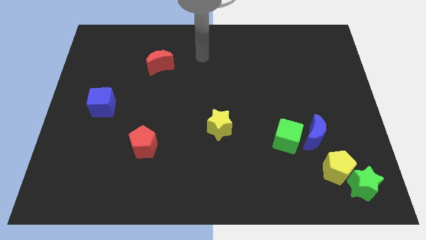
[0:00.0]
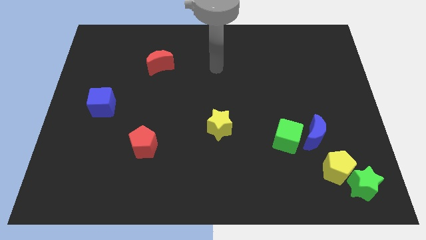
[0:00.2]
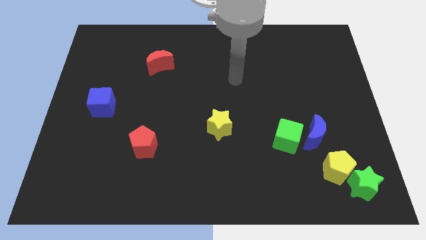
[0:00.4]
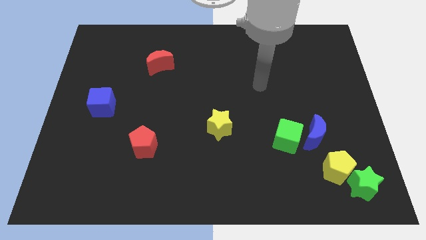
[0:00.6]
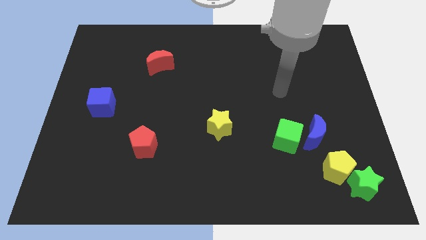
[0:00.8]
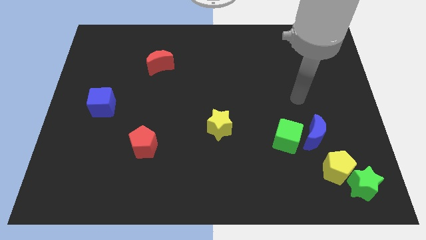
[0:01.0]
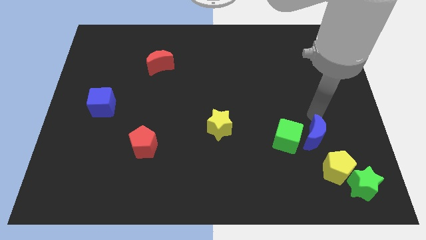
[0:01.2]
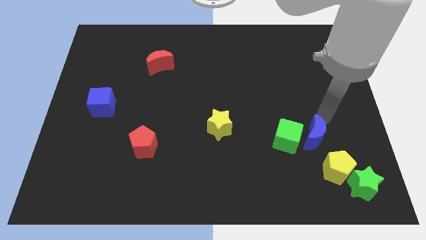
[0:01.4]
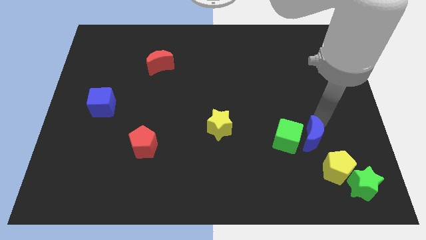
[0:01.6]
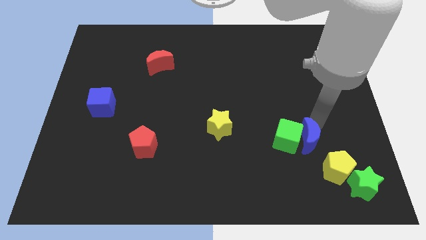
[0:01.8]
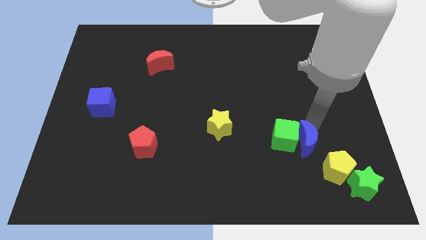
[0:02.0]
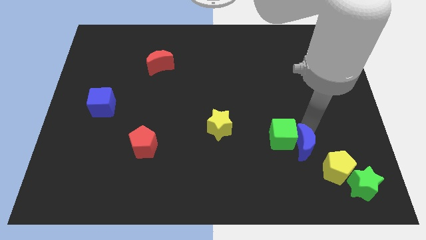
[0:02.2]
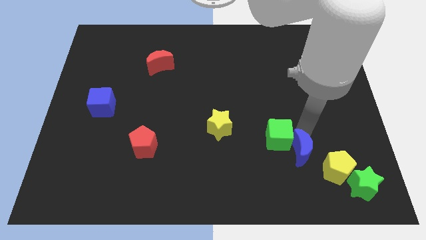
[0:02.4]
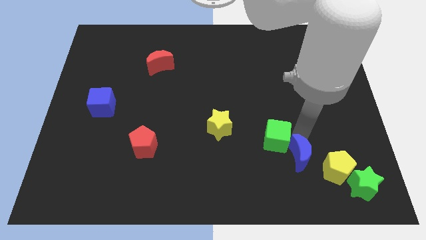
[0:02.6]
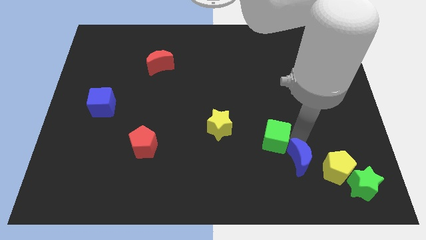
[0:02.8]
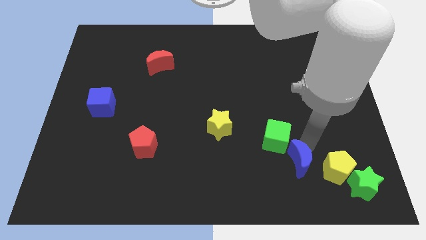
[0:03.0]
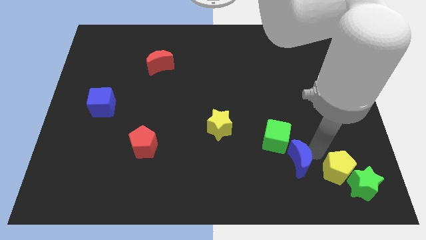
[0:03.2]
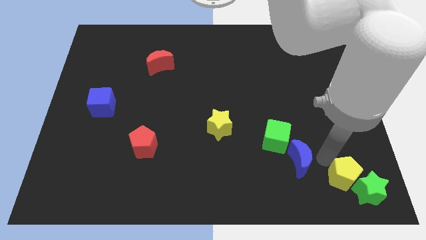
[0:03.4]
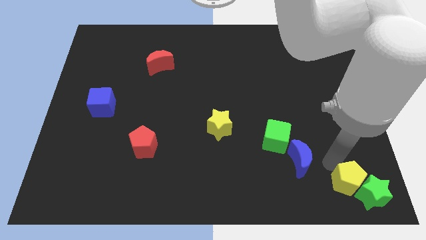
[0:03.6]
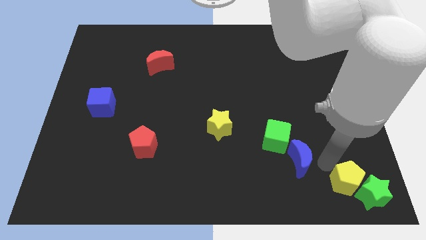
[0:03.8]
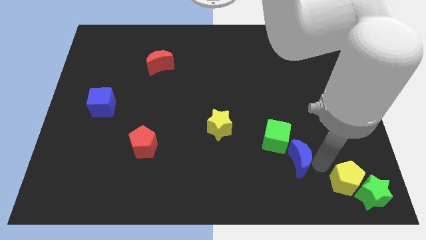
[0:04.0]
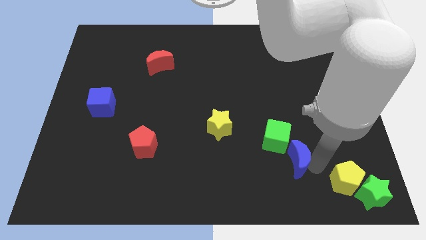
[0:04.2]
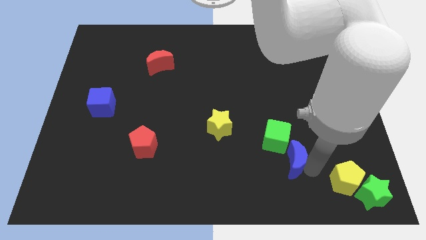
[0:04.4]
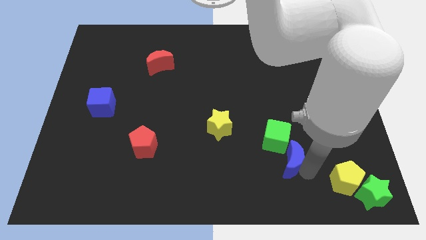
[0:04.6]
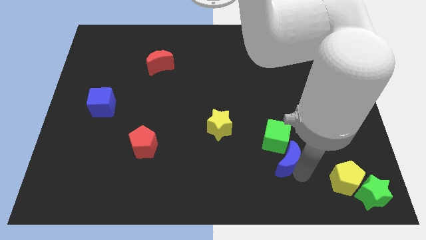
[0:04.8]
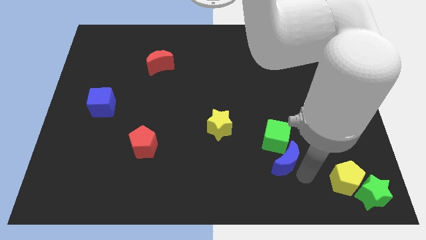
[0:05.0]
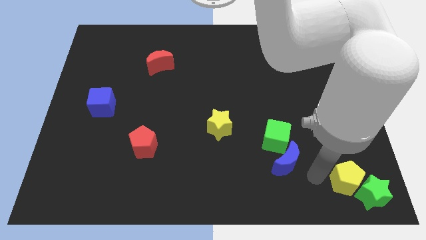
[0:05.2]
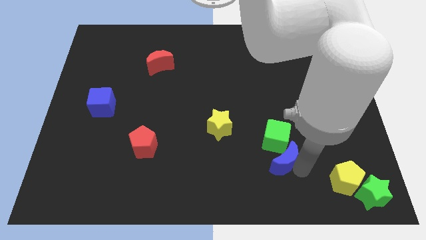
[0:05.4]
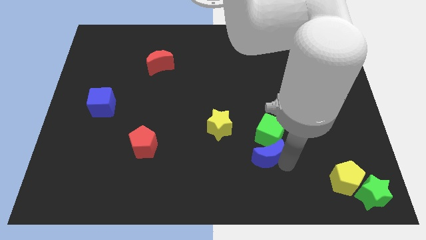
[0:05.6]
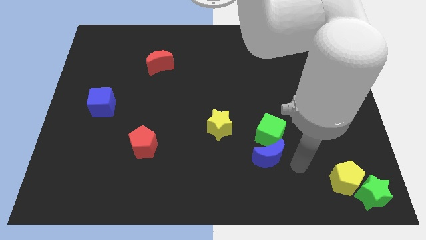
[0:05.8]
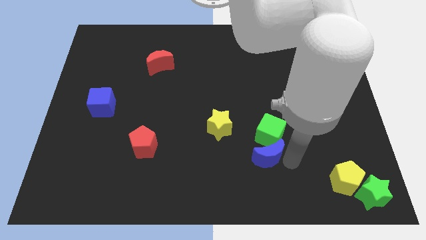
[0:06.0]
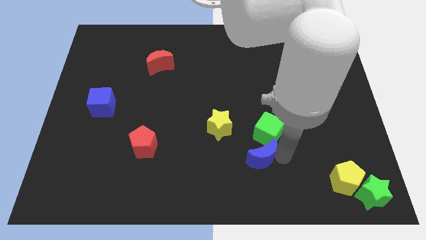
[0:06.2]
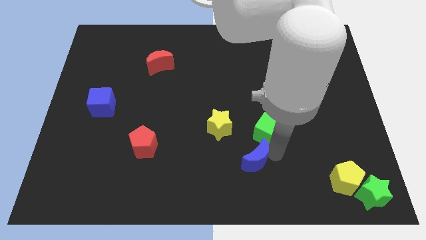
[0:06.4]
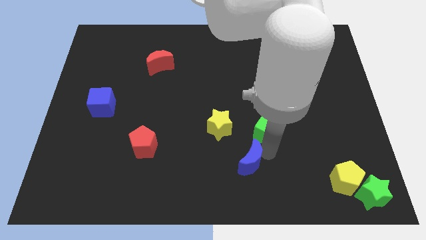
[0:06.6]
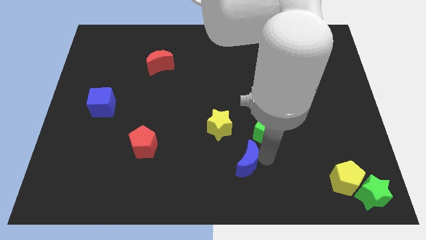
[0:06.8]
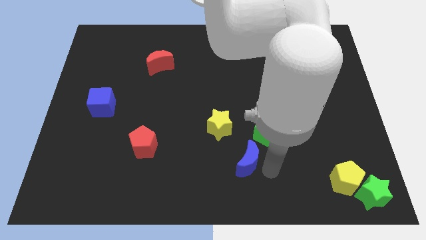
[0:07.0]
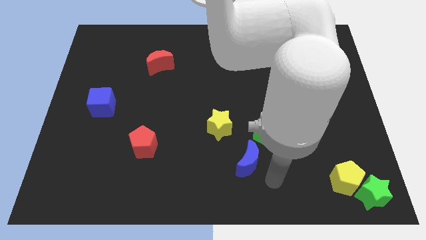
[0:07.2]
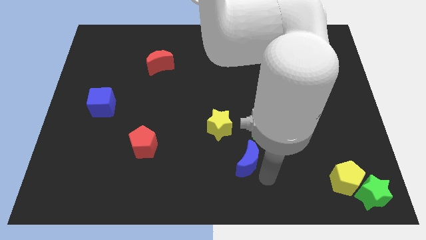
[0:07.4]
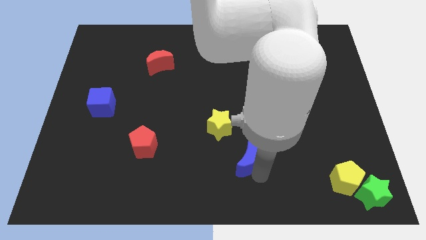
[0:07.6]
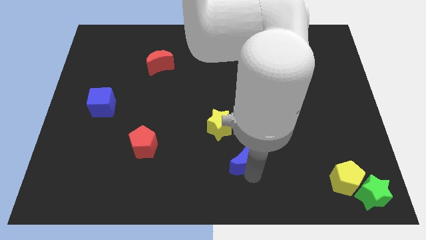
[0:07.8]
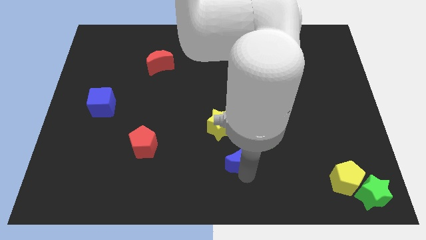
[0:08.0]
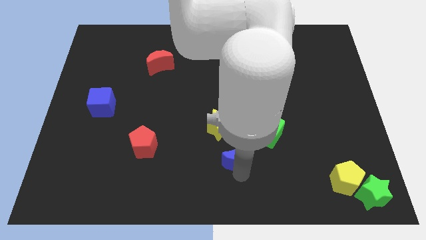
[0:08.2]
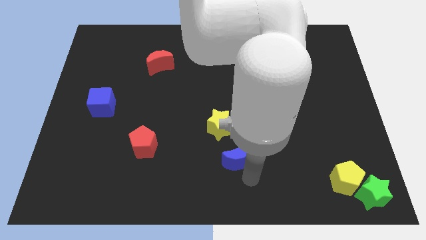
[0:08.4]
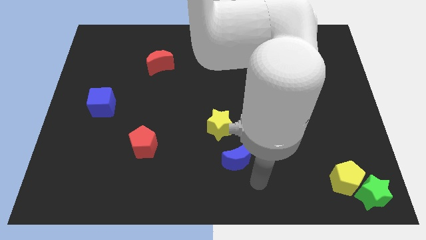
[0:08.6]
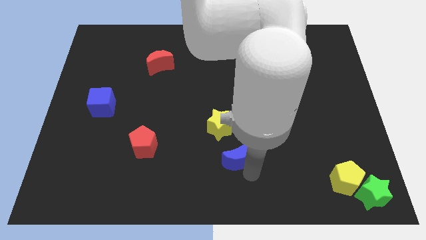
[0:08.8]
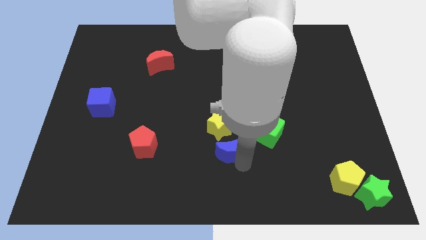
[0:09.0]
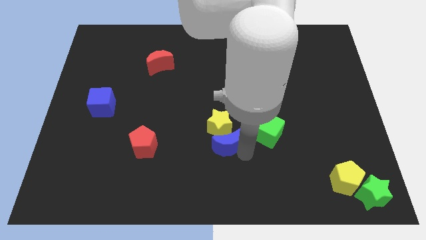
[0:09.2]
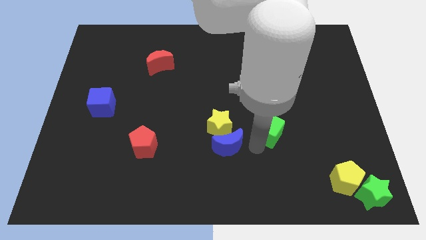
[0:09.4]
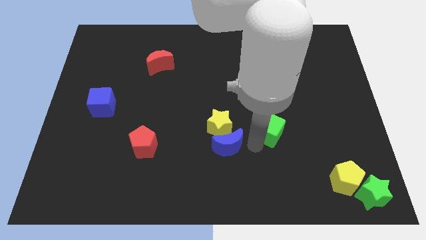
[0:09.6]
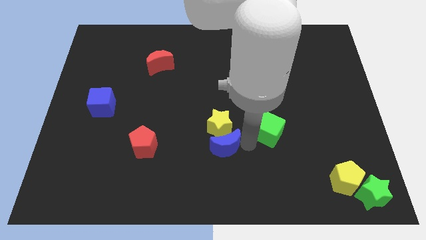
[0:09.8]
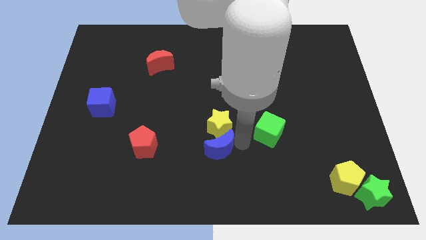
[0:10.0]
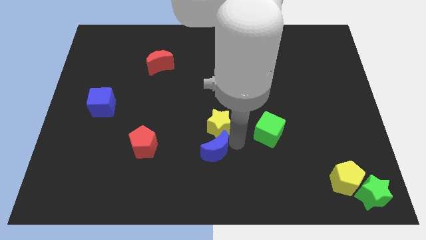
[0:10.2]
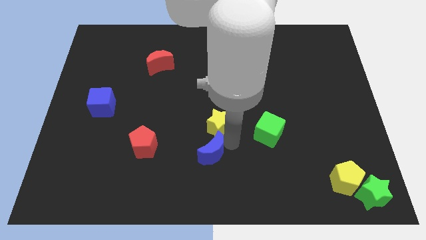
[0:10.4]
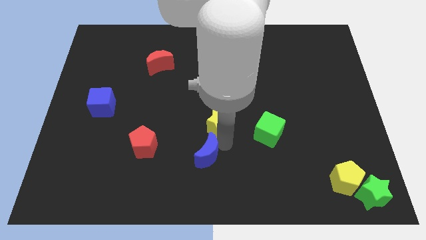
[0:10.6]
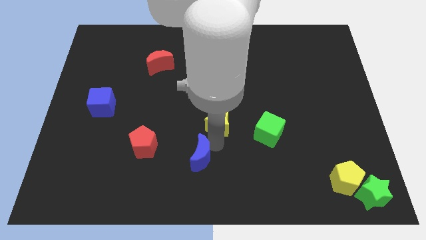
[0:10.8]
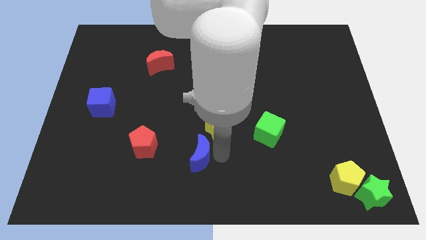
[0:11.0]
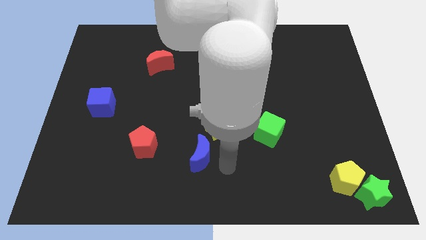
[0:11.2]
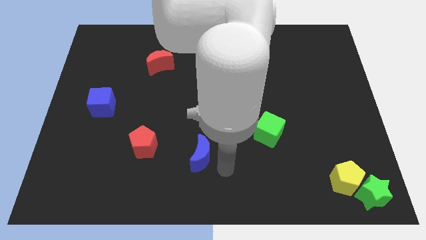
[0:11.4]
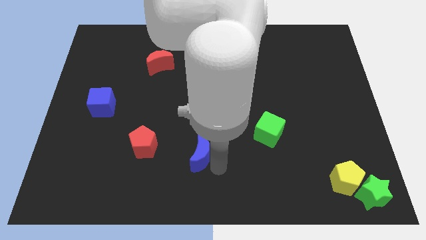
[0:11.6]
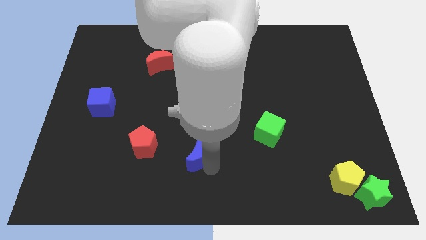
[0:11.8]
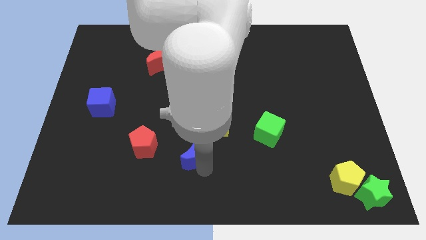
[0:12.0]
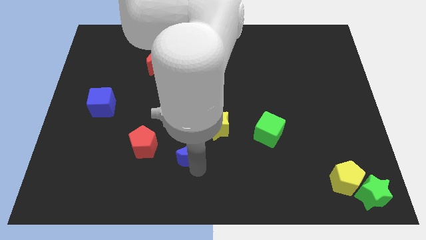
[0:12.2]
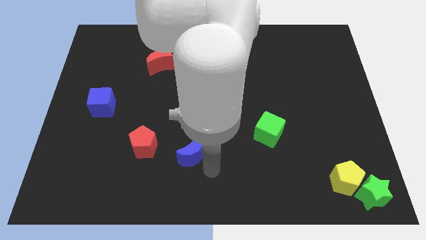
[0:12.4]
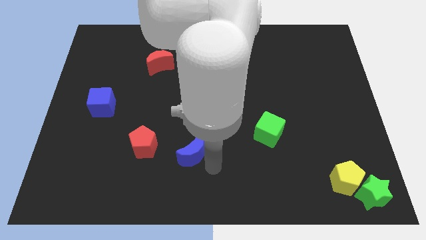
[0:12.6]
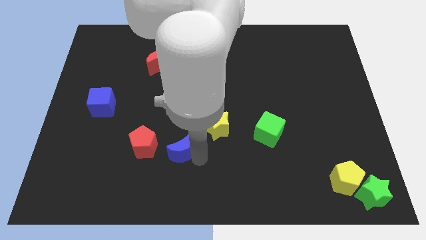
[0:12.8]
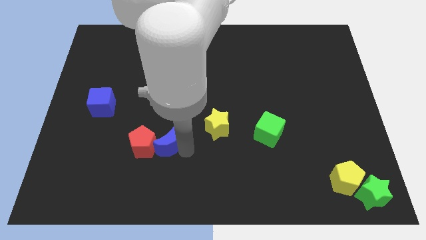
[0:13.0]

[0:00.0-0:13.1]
push the blue moon to the red pentagon

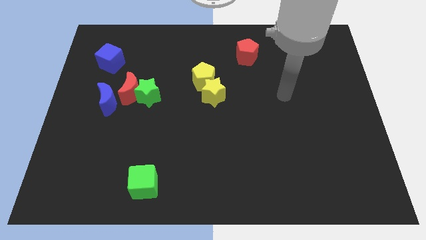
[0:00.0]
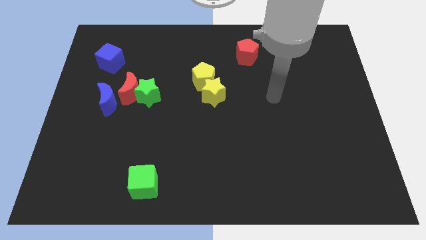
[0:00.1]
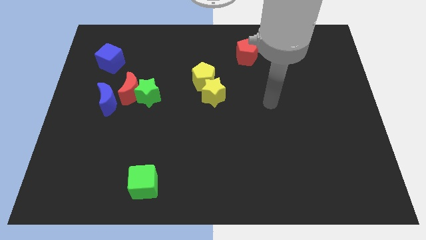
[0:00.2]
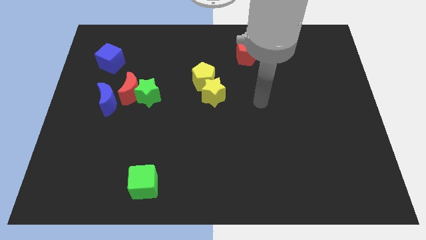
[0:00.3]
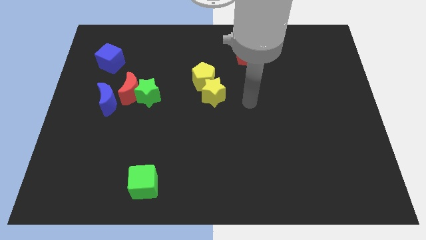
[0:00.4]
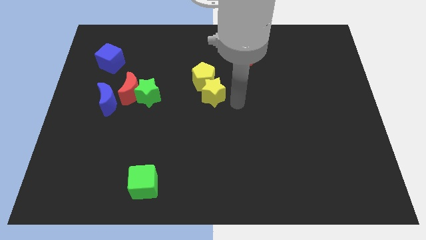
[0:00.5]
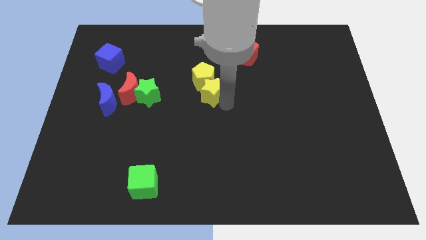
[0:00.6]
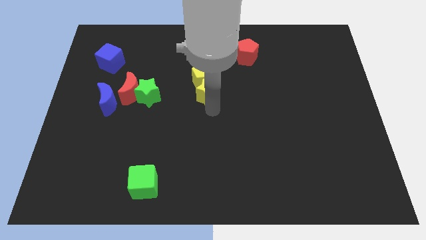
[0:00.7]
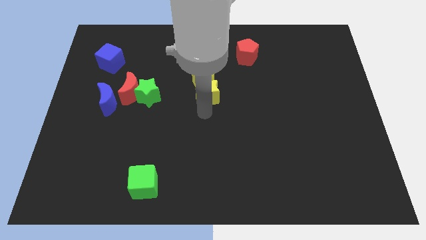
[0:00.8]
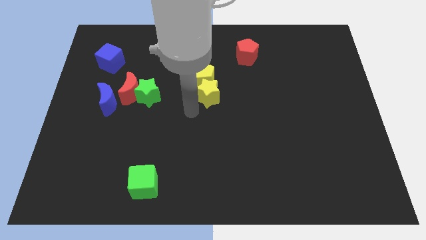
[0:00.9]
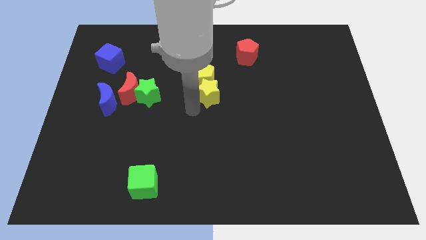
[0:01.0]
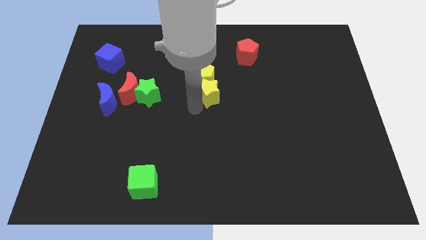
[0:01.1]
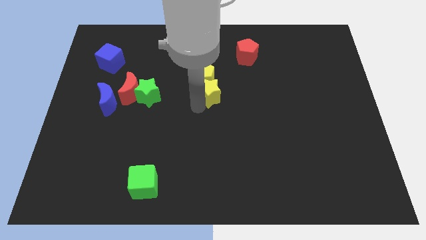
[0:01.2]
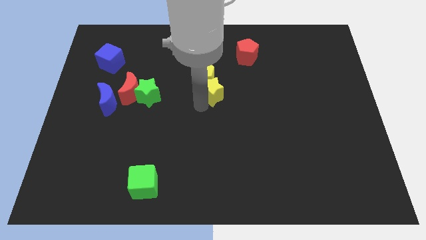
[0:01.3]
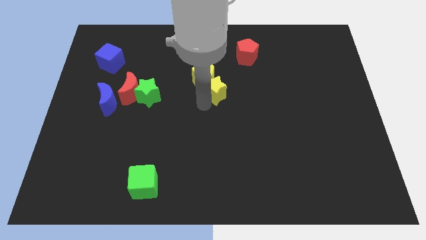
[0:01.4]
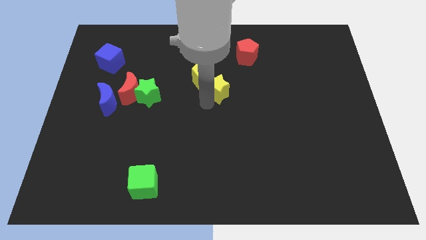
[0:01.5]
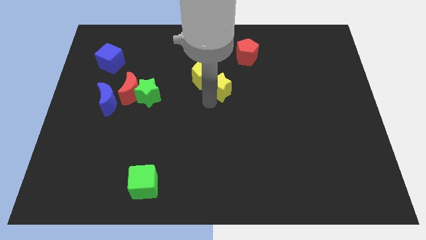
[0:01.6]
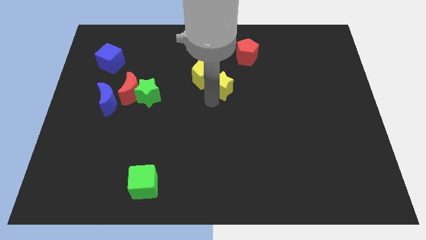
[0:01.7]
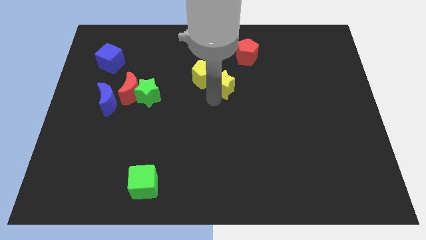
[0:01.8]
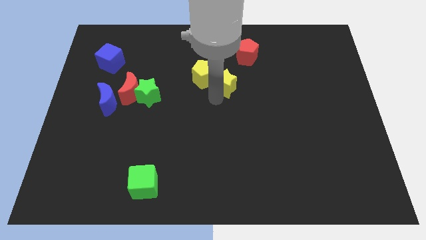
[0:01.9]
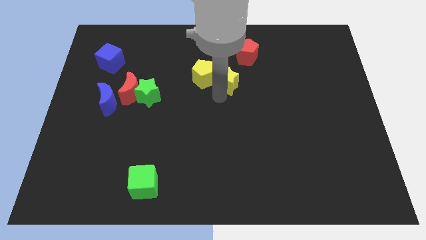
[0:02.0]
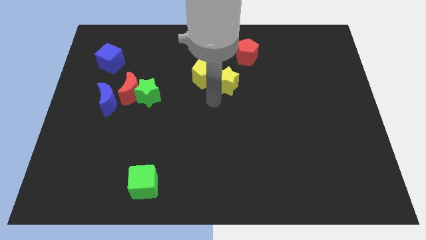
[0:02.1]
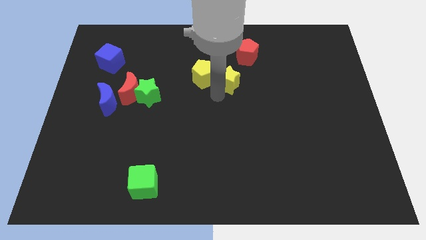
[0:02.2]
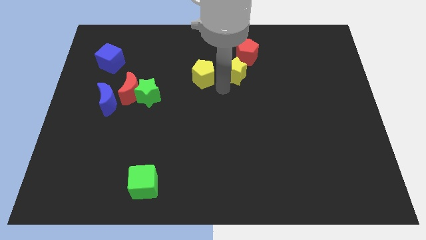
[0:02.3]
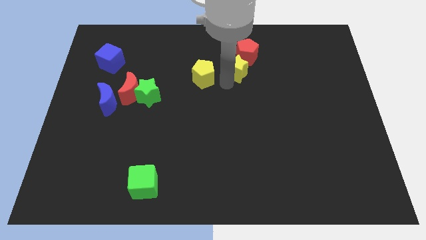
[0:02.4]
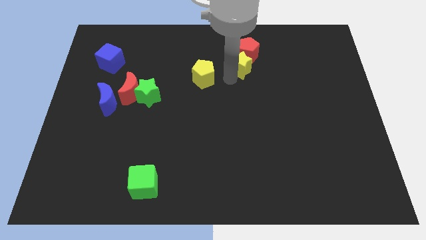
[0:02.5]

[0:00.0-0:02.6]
move the yellow star towards the red pentagon
